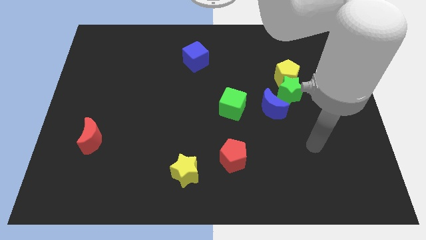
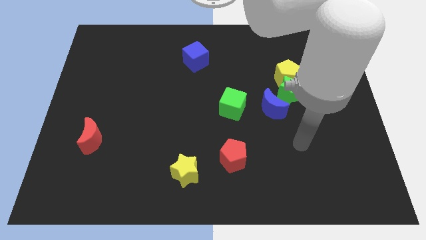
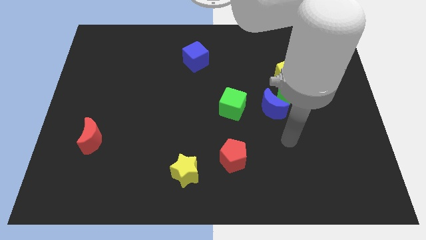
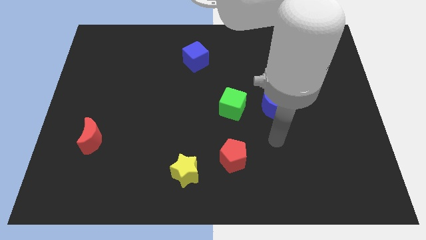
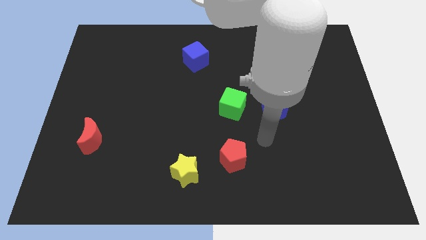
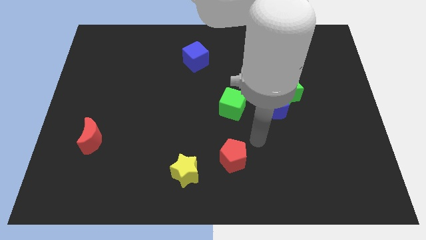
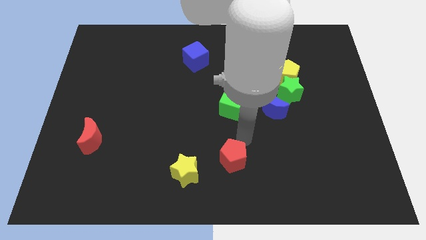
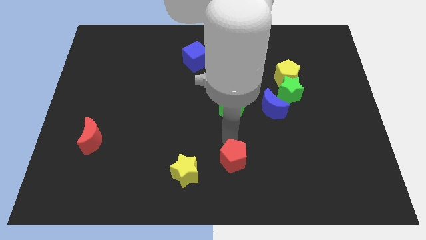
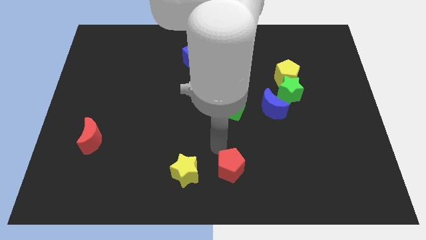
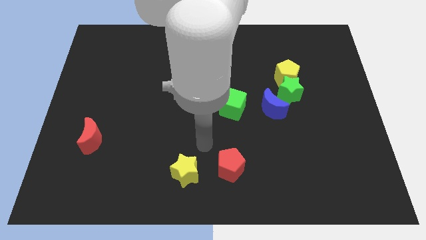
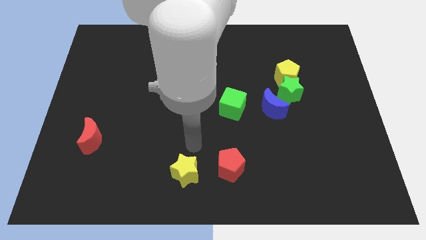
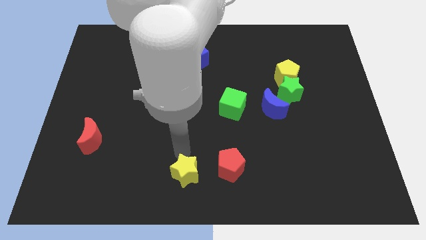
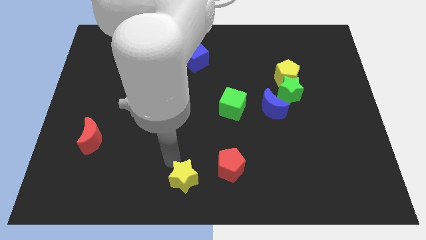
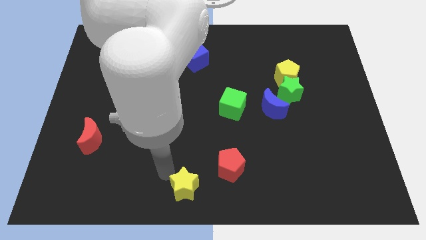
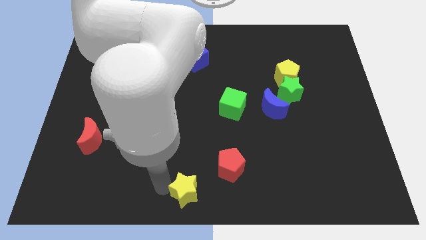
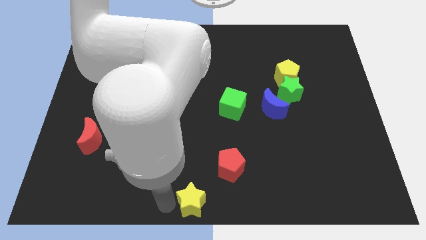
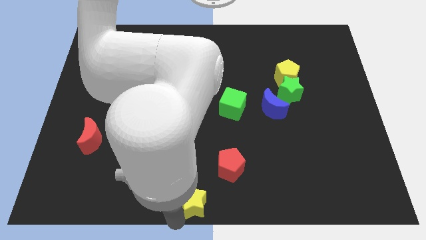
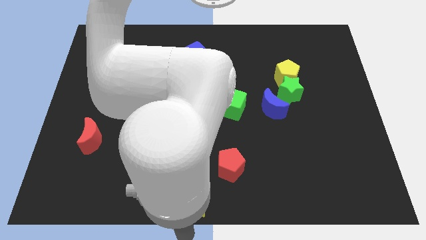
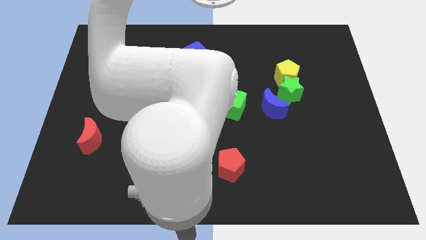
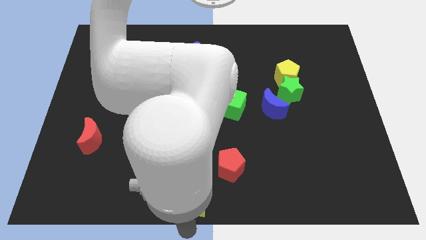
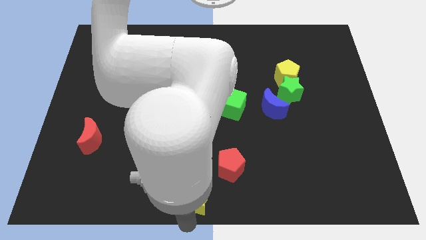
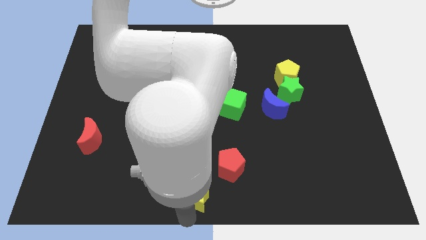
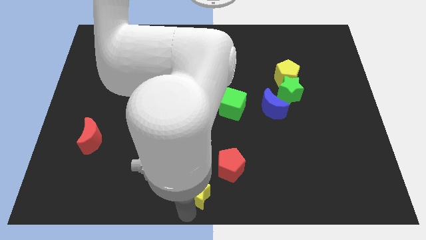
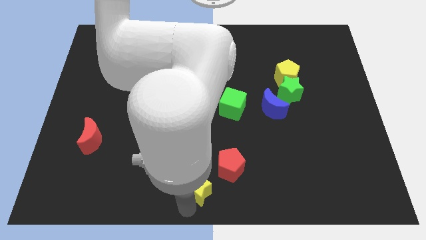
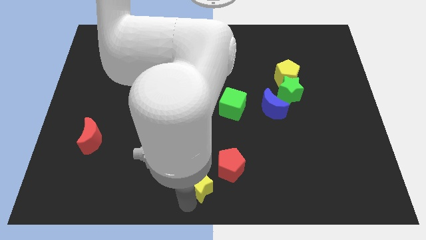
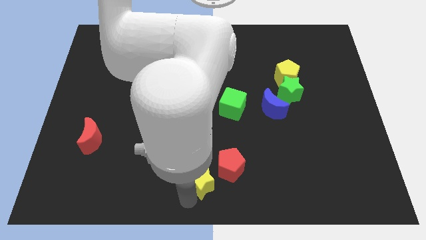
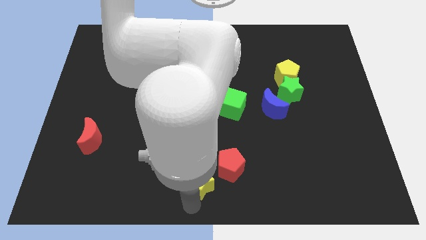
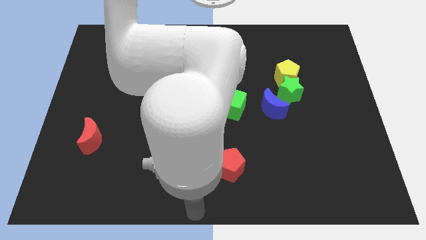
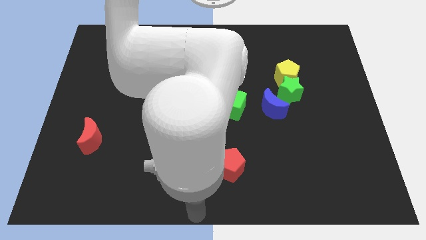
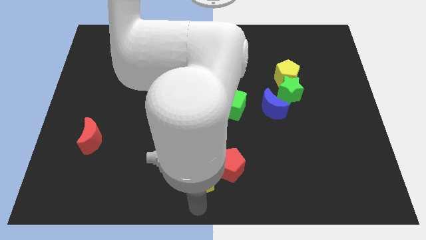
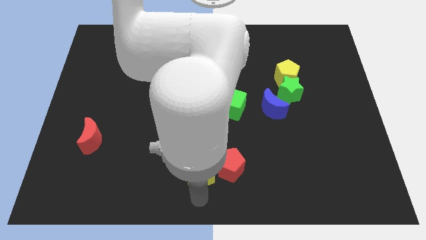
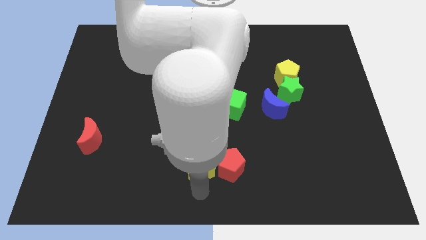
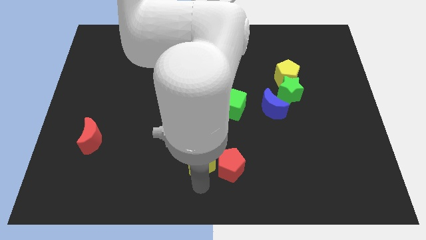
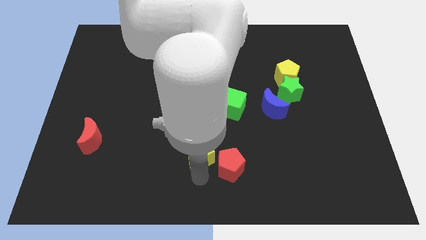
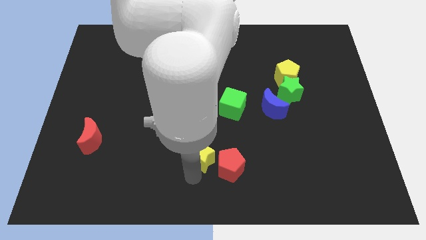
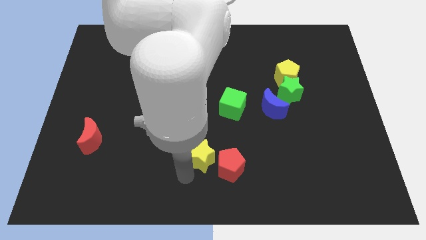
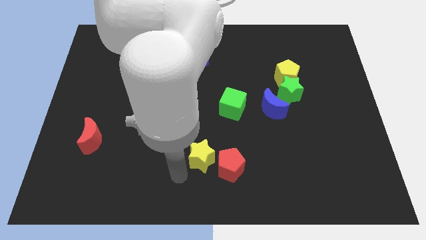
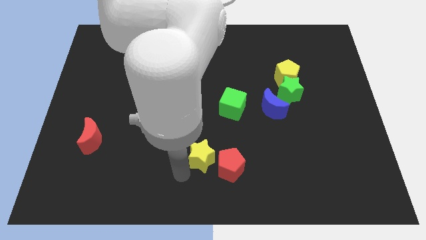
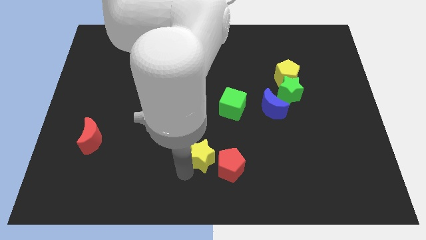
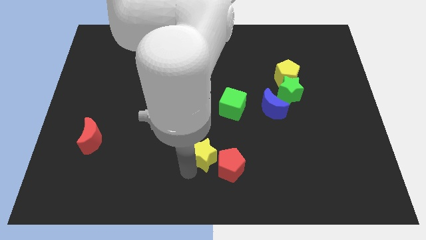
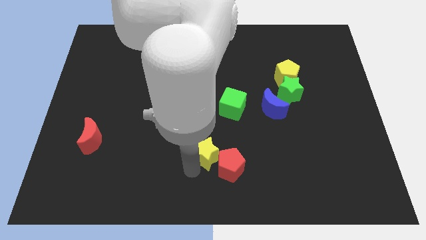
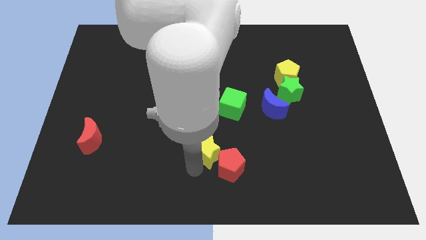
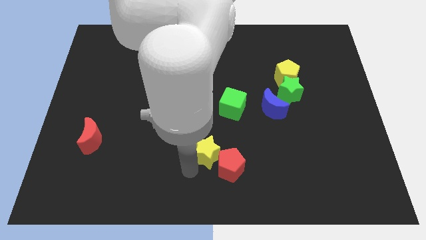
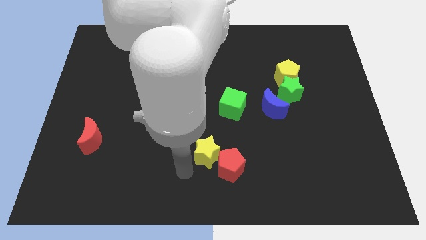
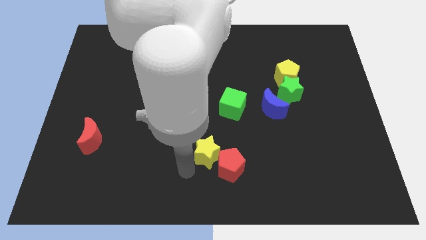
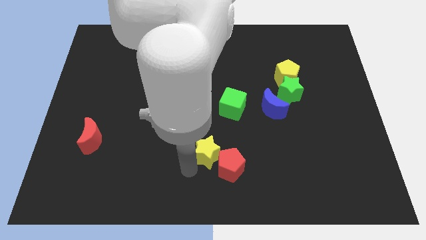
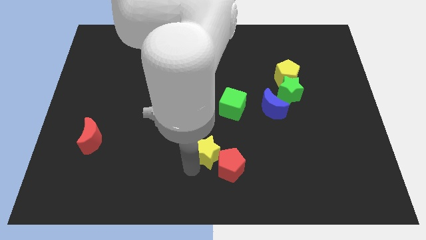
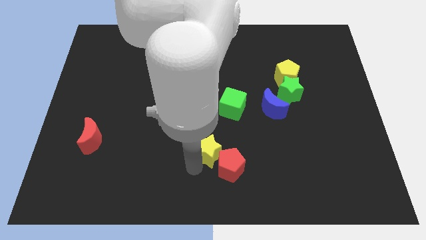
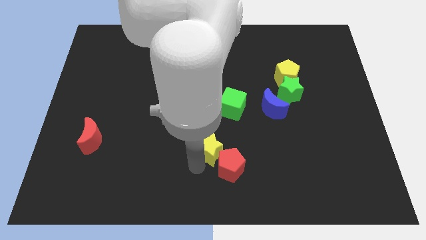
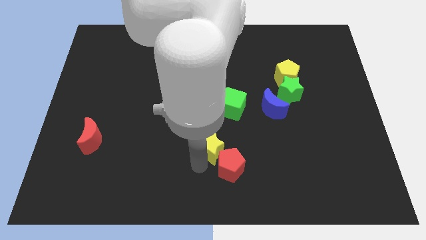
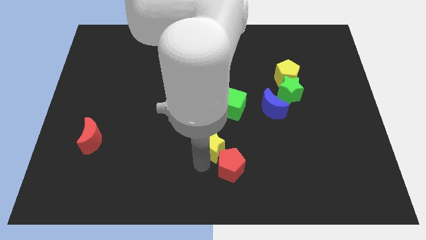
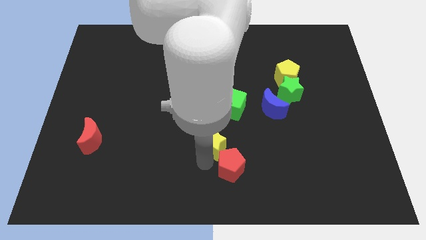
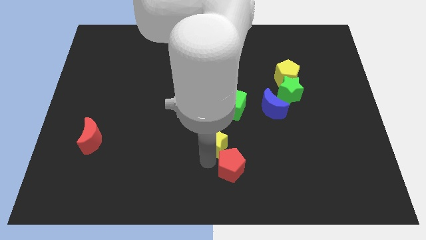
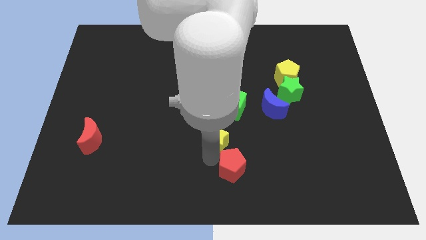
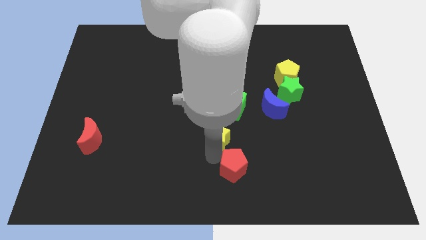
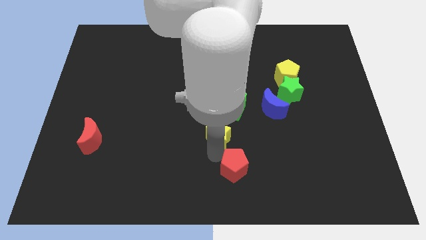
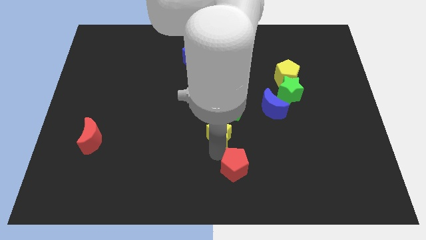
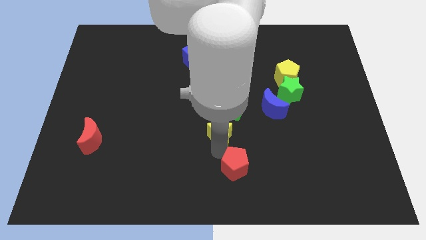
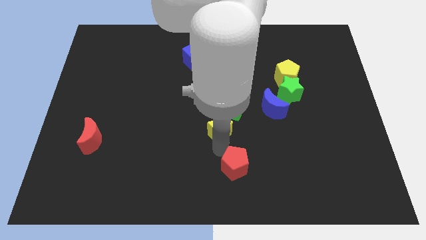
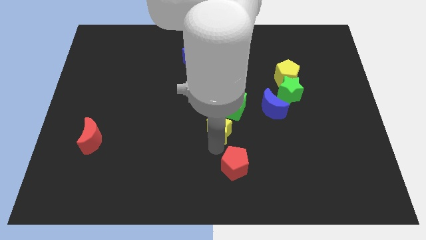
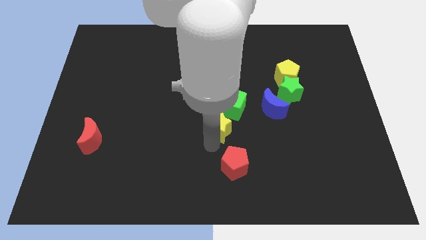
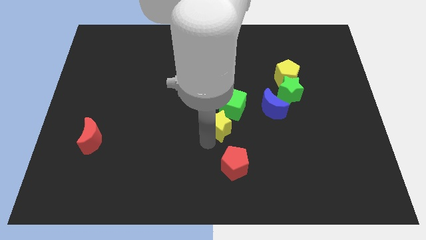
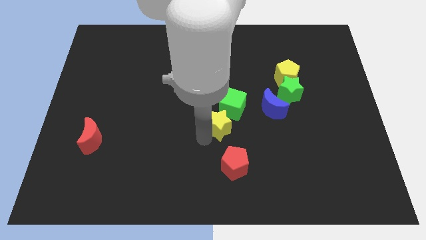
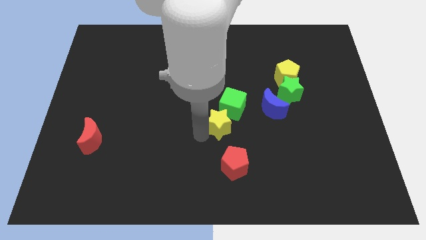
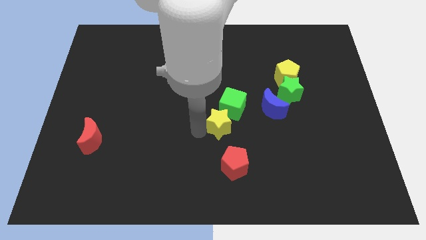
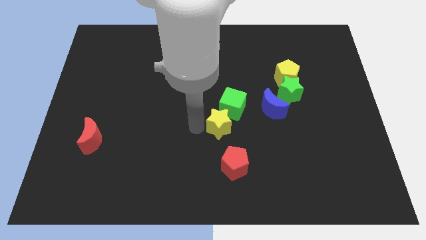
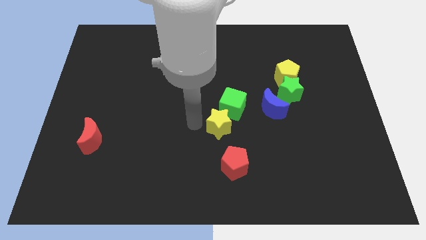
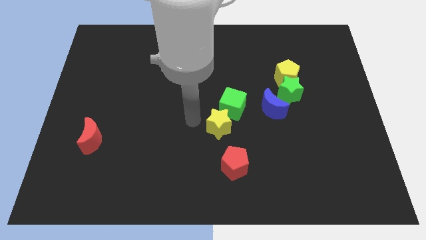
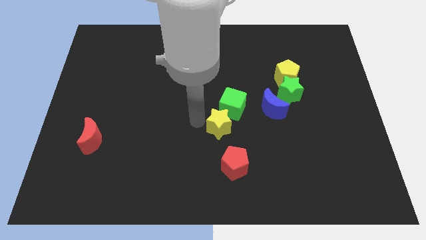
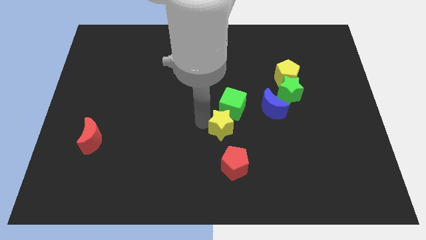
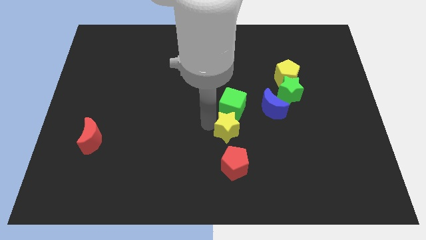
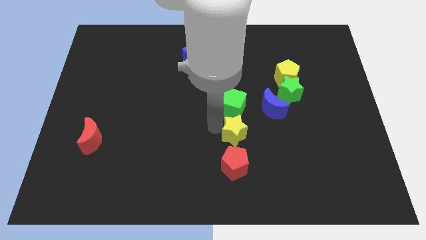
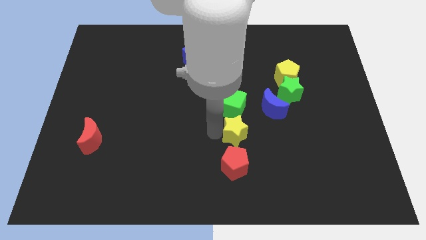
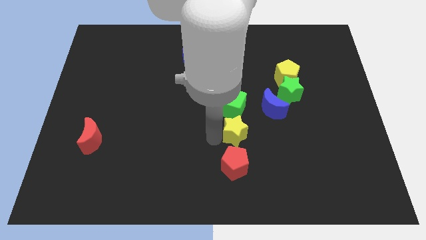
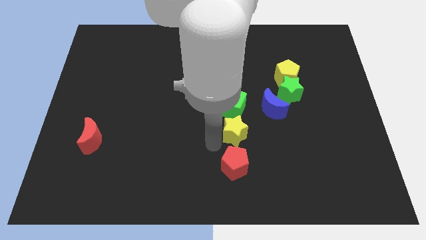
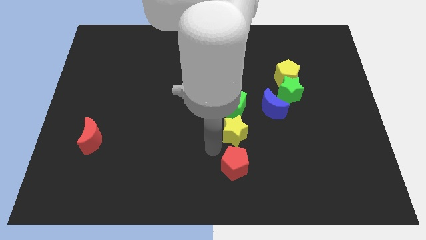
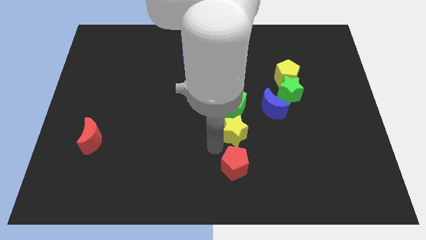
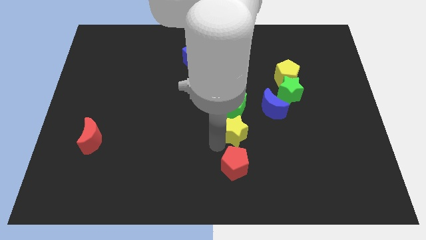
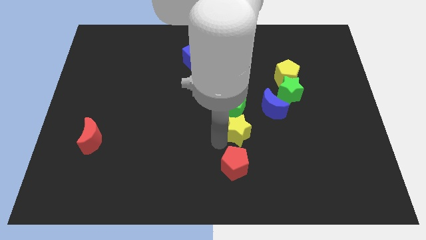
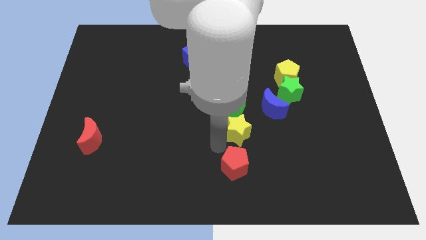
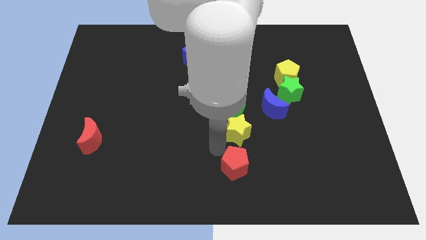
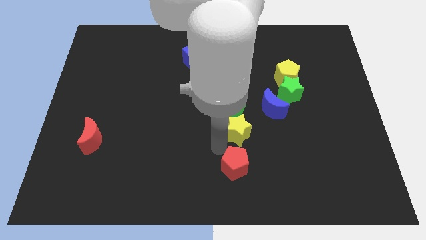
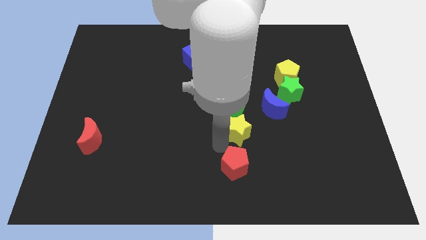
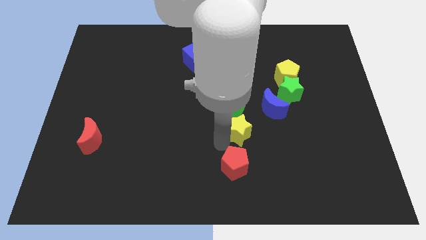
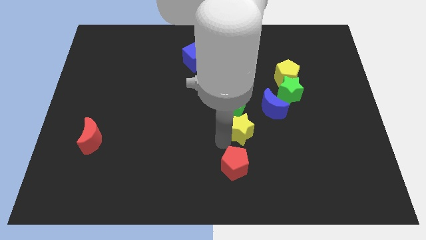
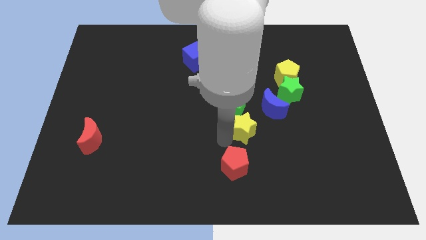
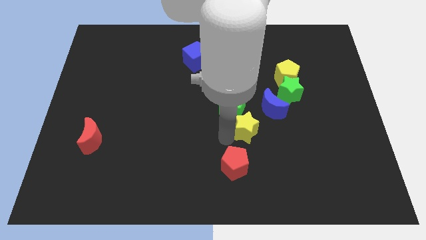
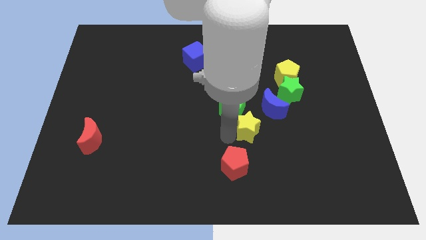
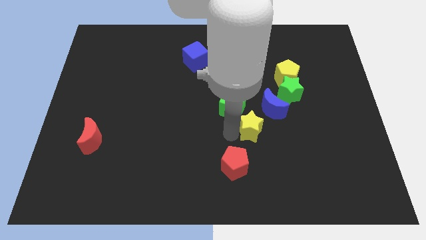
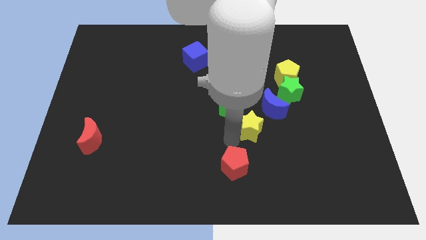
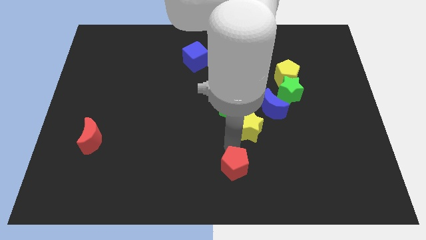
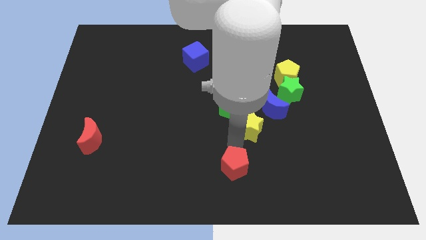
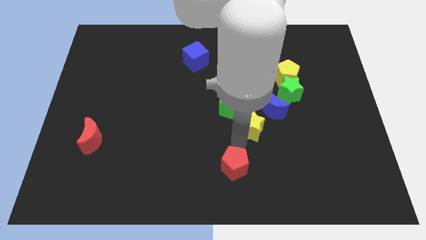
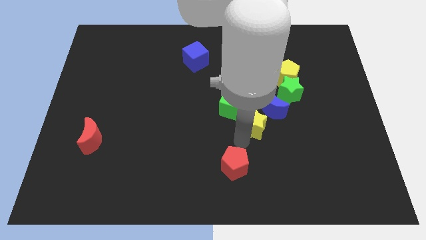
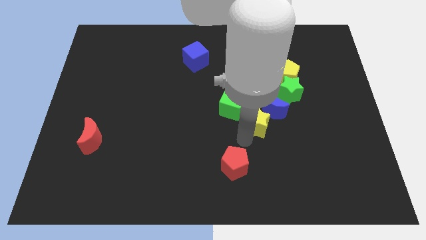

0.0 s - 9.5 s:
put the yellow star to the blue moon
